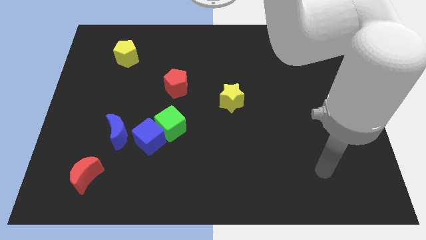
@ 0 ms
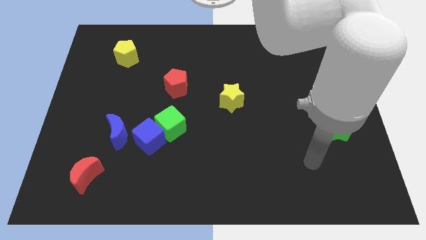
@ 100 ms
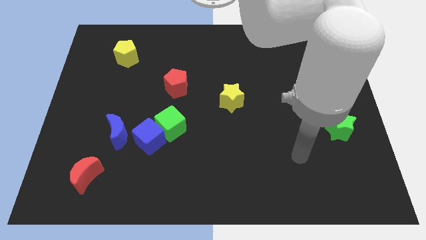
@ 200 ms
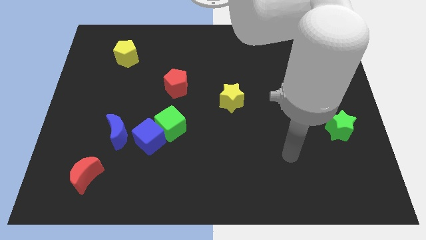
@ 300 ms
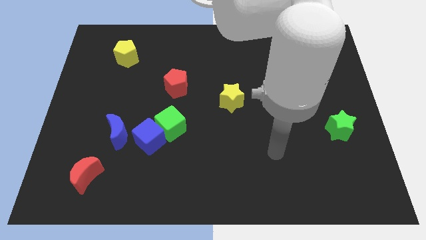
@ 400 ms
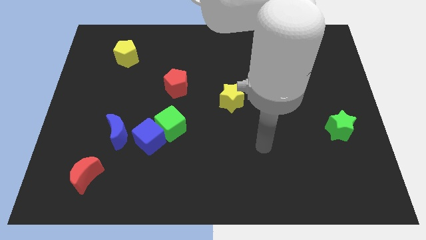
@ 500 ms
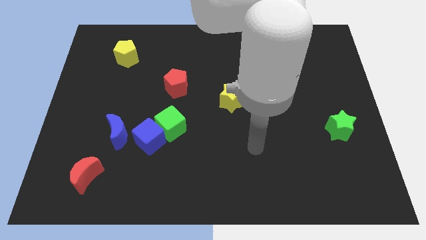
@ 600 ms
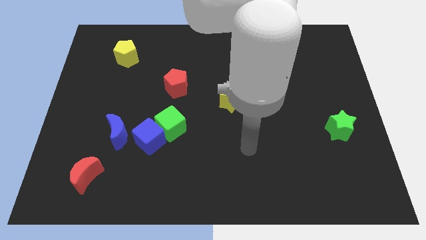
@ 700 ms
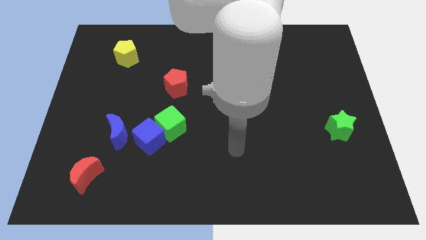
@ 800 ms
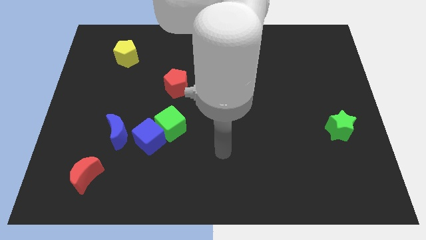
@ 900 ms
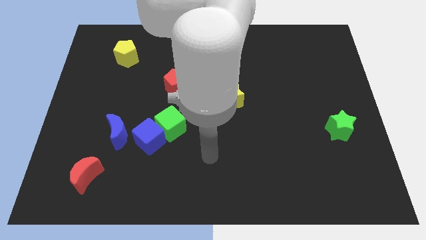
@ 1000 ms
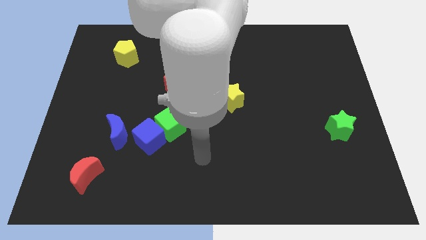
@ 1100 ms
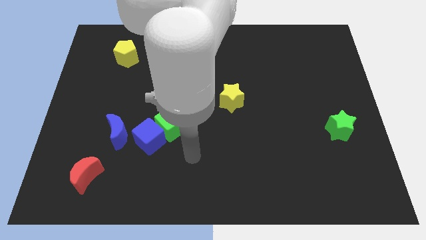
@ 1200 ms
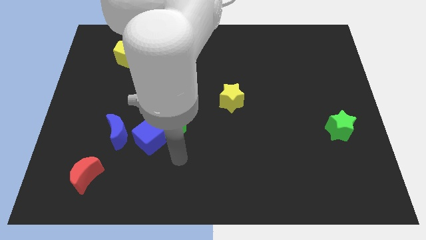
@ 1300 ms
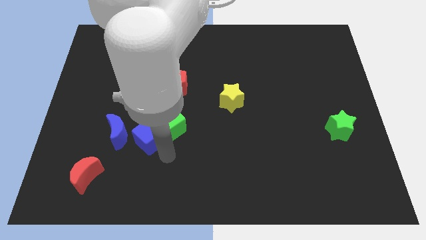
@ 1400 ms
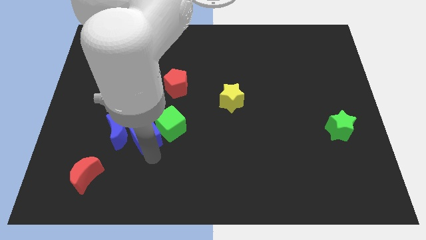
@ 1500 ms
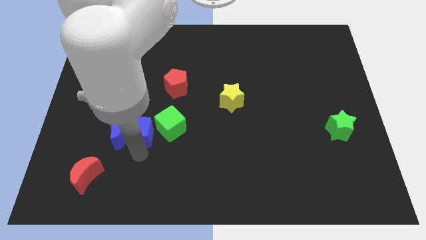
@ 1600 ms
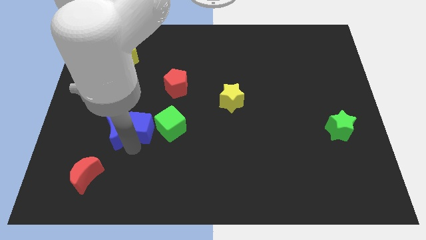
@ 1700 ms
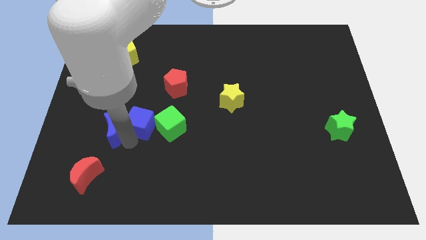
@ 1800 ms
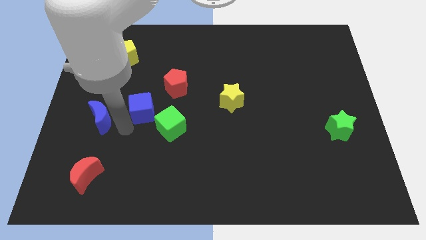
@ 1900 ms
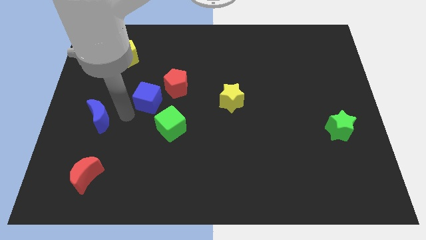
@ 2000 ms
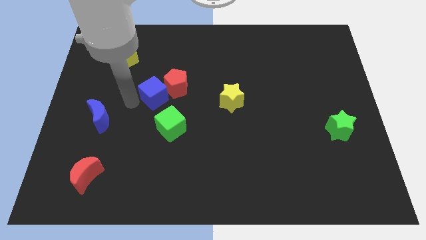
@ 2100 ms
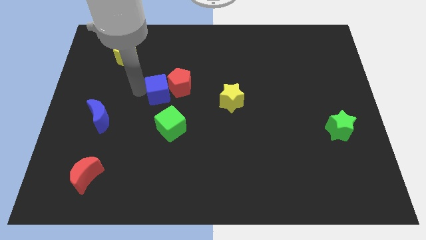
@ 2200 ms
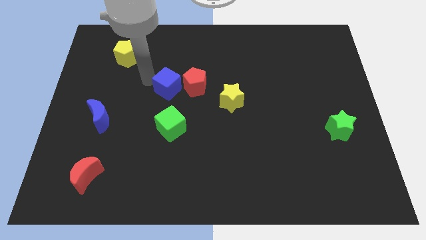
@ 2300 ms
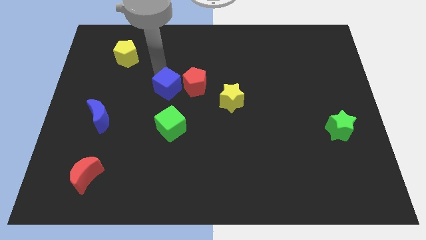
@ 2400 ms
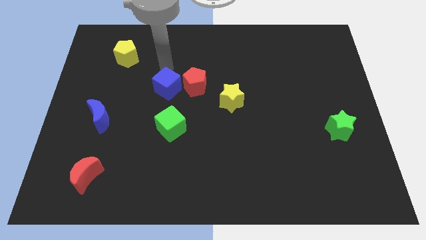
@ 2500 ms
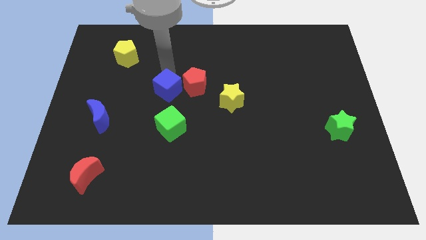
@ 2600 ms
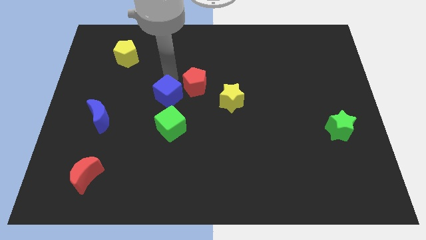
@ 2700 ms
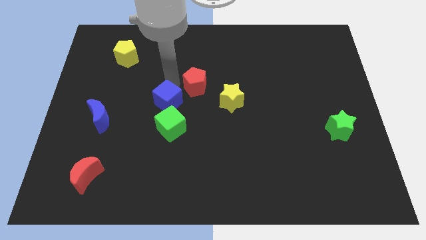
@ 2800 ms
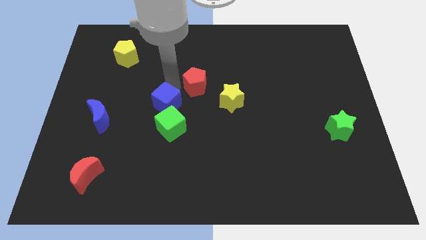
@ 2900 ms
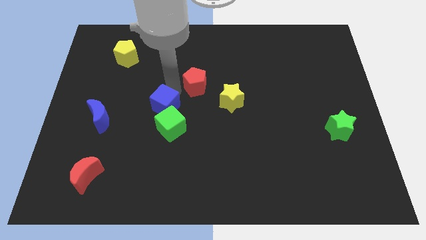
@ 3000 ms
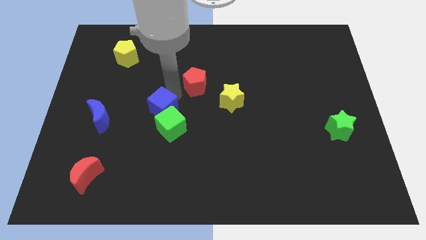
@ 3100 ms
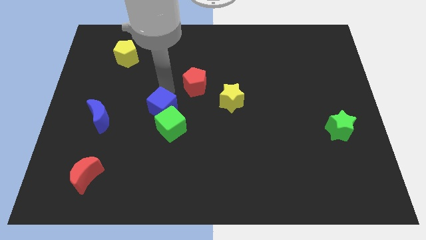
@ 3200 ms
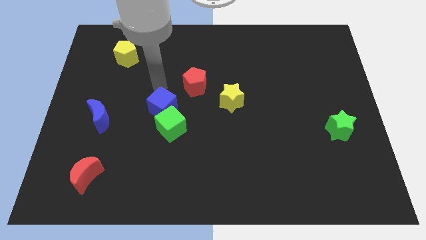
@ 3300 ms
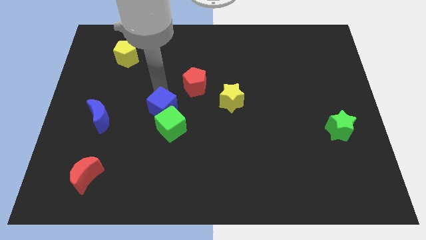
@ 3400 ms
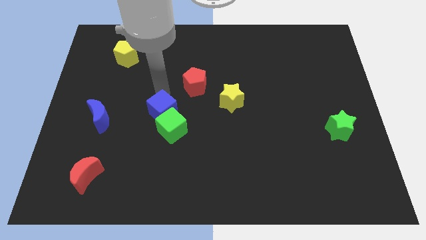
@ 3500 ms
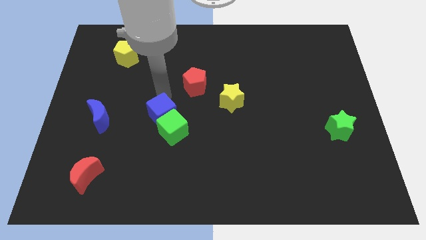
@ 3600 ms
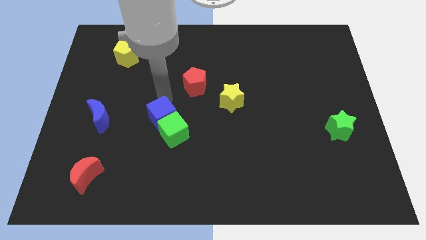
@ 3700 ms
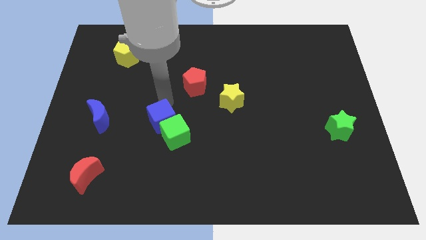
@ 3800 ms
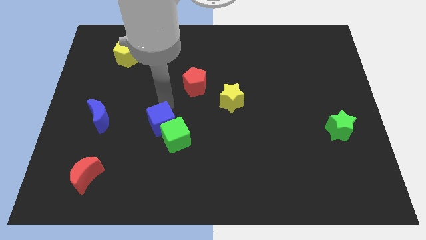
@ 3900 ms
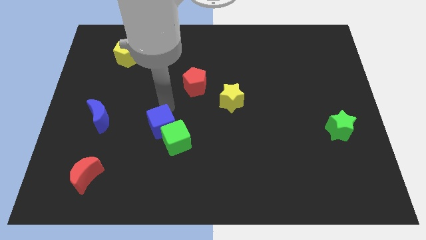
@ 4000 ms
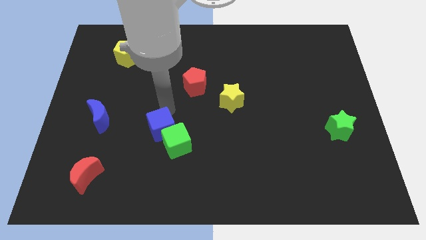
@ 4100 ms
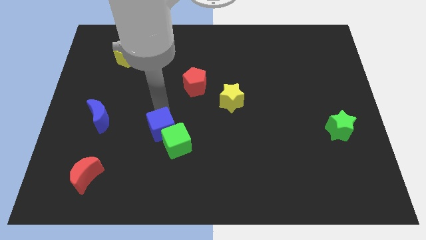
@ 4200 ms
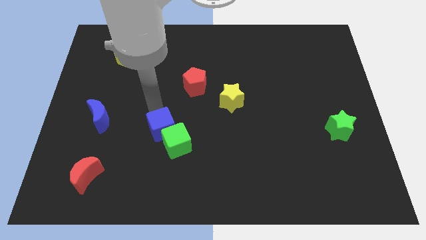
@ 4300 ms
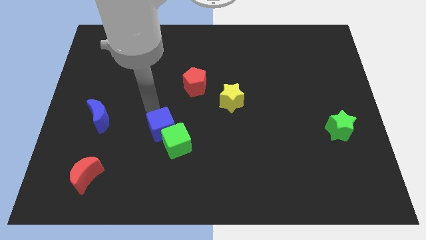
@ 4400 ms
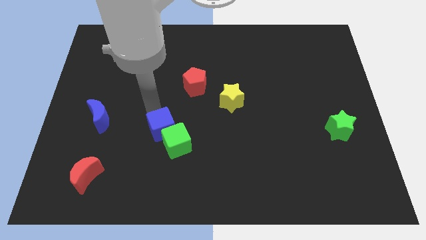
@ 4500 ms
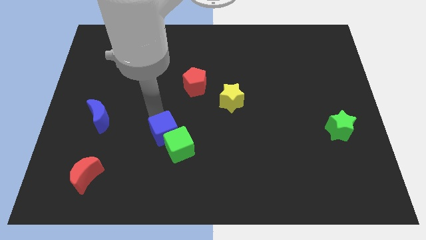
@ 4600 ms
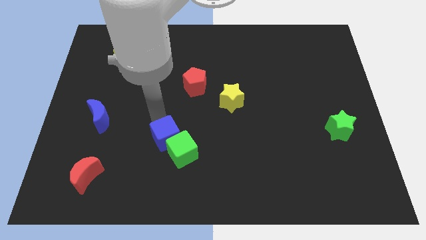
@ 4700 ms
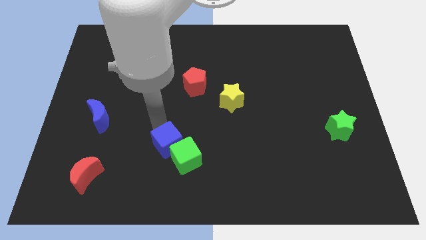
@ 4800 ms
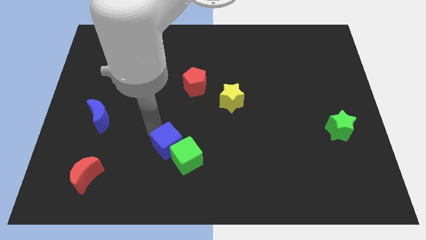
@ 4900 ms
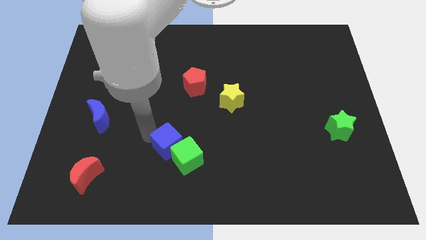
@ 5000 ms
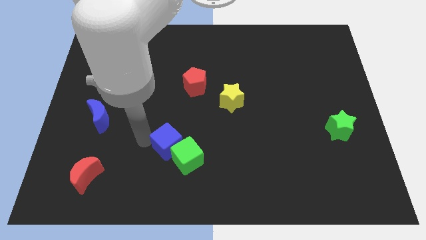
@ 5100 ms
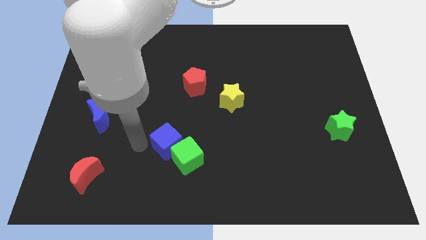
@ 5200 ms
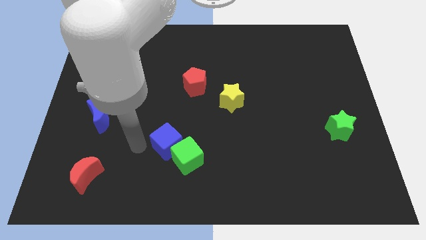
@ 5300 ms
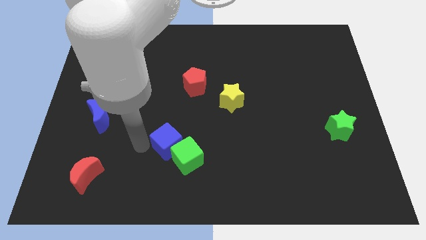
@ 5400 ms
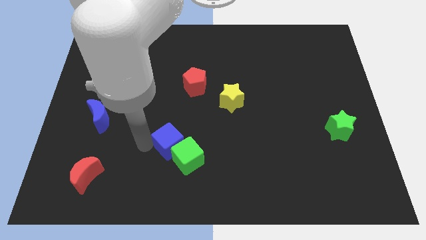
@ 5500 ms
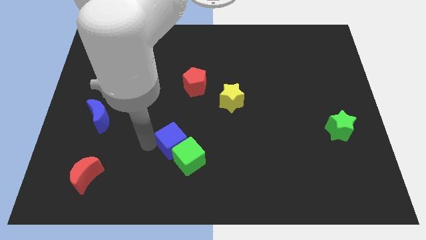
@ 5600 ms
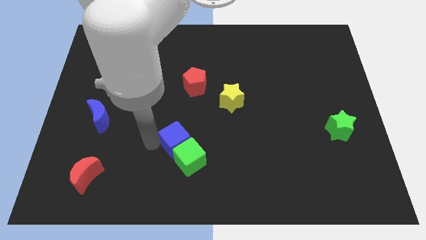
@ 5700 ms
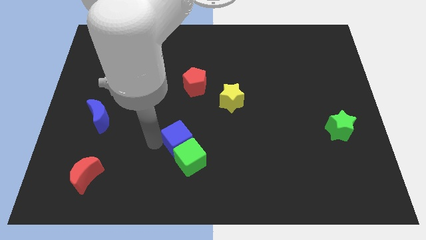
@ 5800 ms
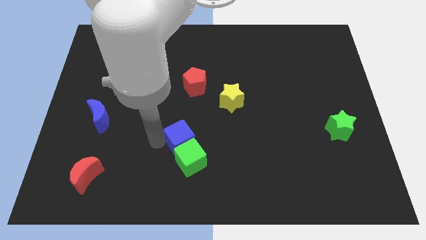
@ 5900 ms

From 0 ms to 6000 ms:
slide the blue cube to the right slightly

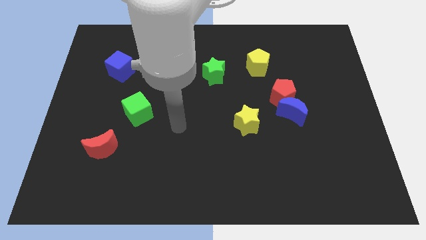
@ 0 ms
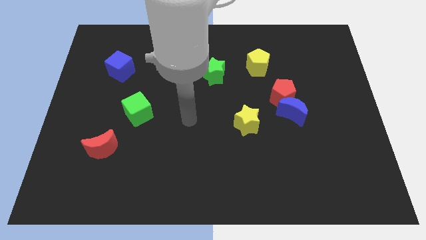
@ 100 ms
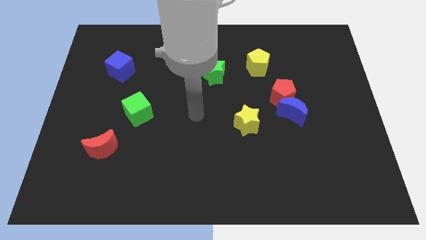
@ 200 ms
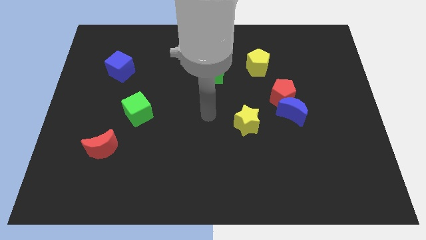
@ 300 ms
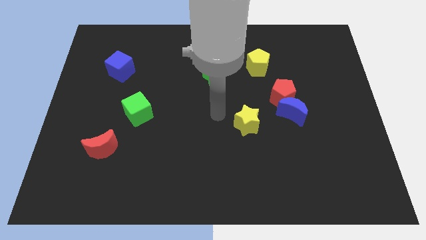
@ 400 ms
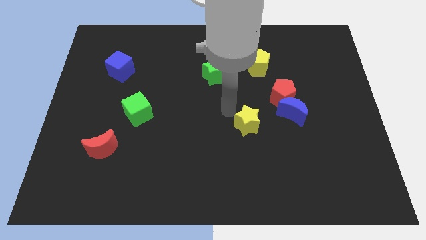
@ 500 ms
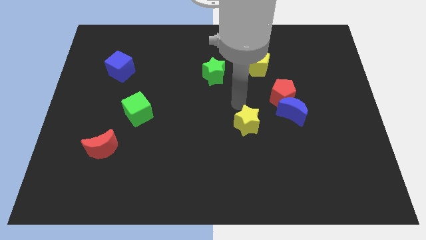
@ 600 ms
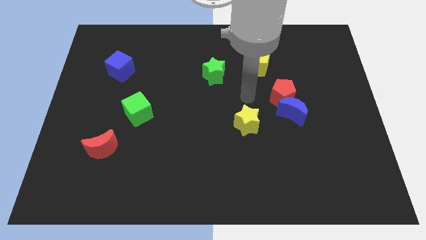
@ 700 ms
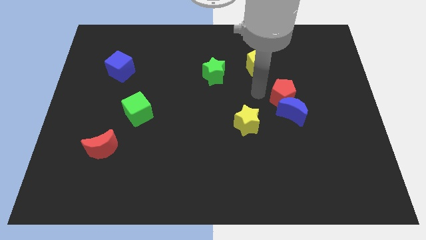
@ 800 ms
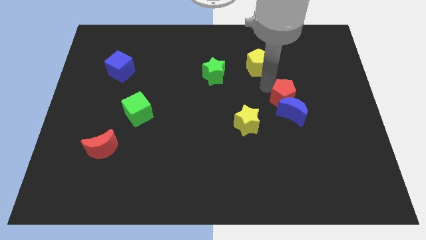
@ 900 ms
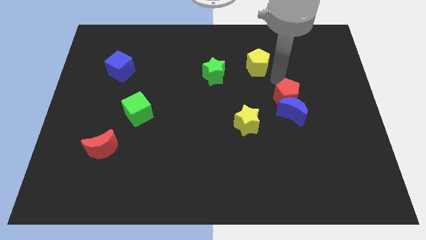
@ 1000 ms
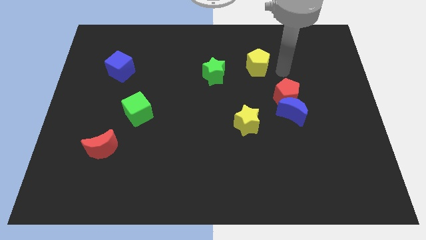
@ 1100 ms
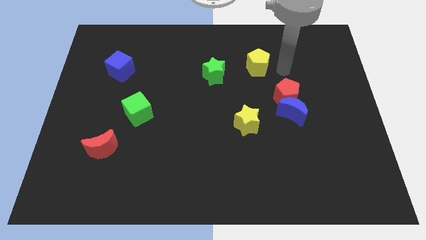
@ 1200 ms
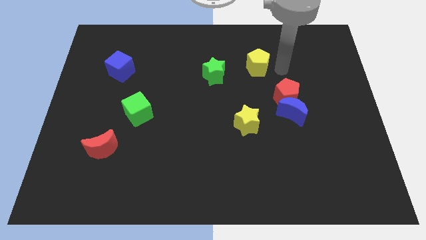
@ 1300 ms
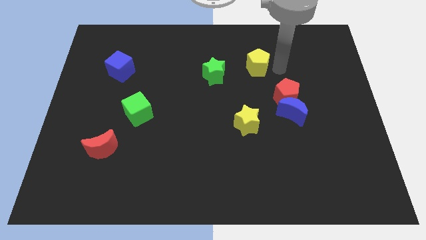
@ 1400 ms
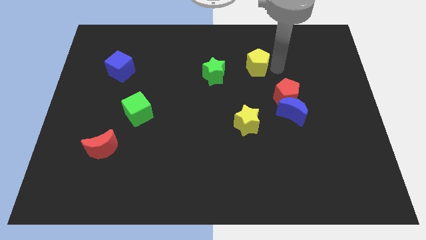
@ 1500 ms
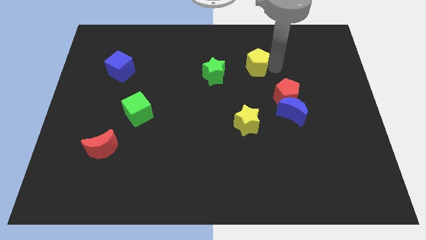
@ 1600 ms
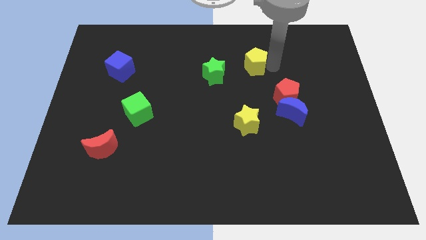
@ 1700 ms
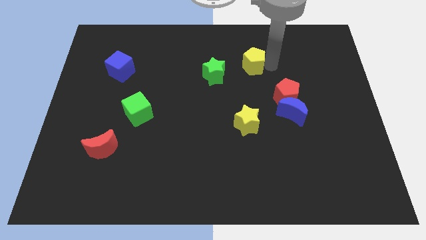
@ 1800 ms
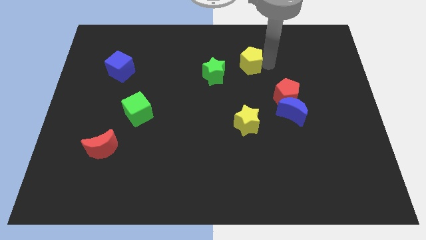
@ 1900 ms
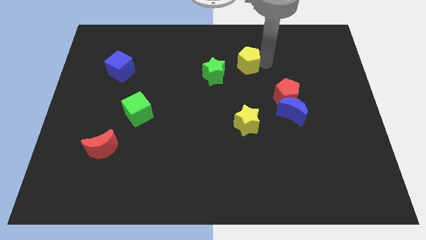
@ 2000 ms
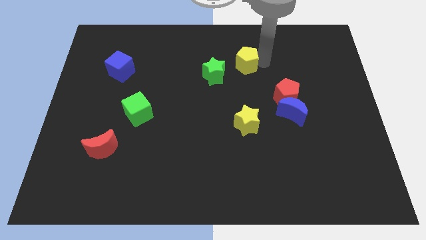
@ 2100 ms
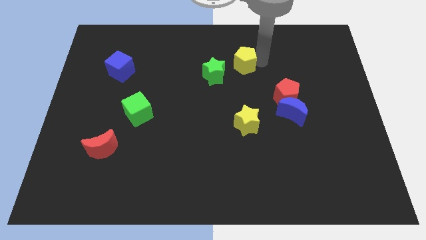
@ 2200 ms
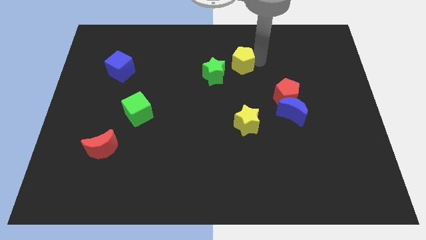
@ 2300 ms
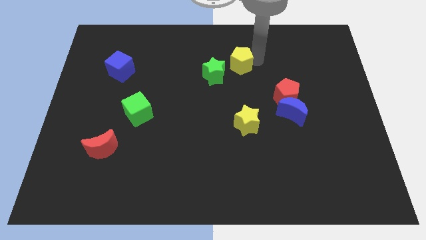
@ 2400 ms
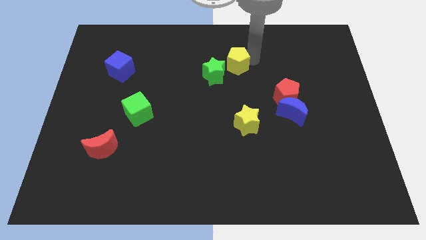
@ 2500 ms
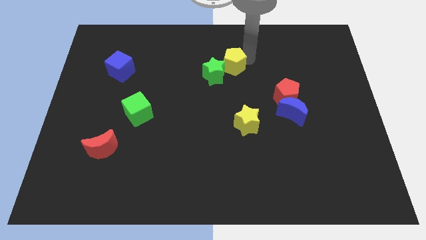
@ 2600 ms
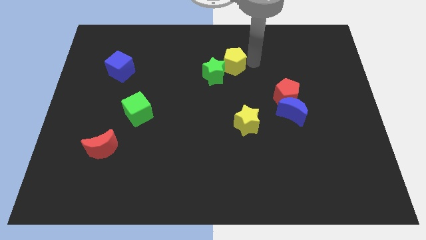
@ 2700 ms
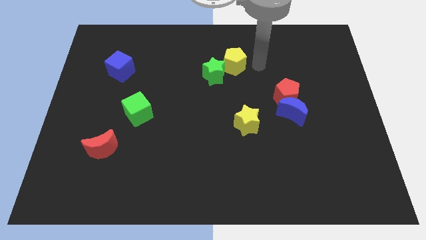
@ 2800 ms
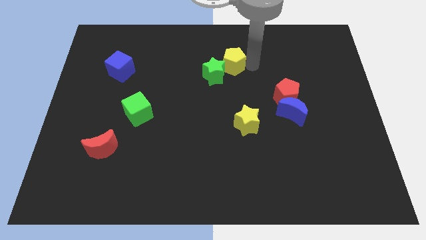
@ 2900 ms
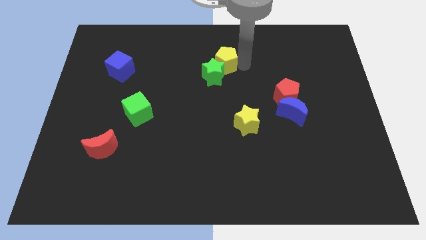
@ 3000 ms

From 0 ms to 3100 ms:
move the yellow pentagon to the left a little
